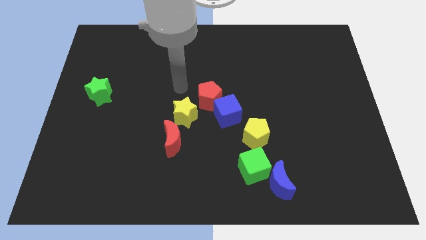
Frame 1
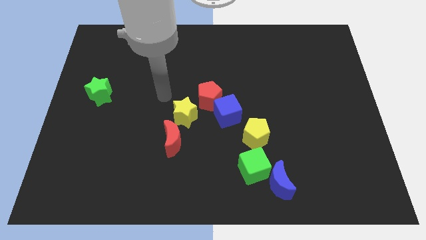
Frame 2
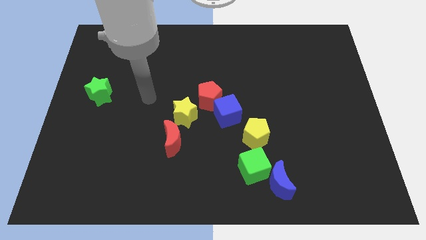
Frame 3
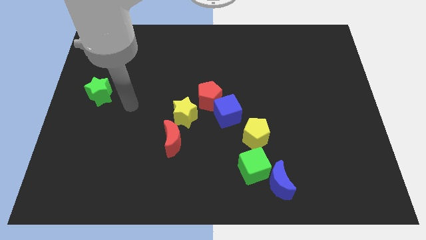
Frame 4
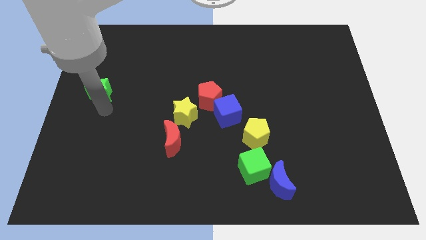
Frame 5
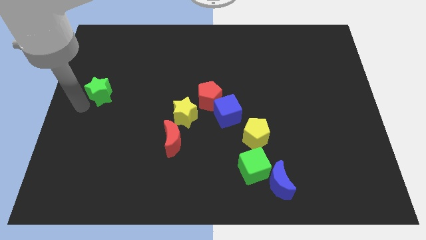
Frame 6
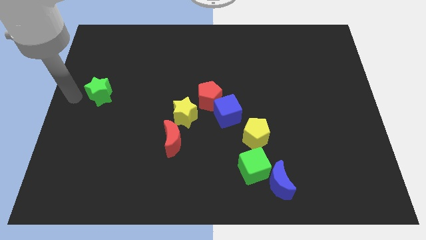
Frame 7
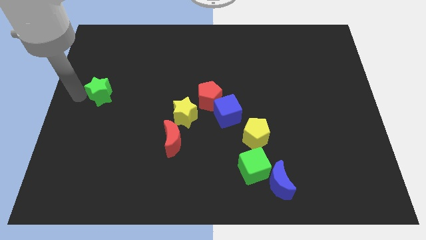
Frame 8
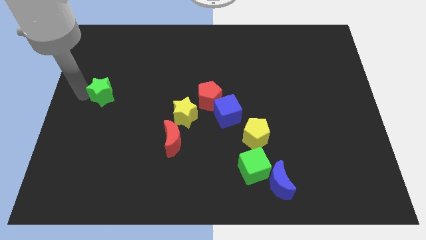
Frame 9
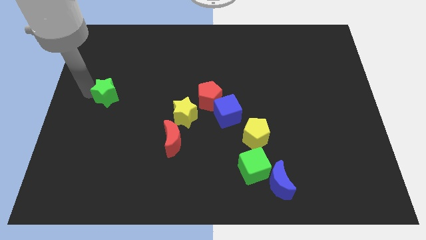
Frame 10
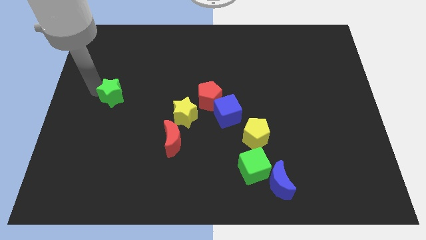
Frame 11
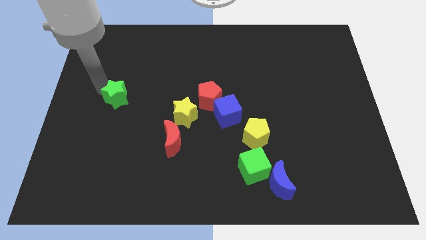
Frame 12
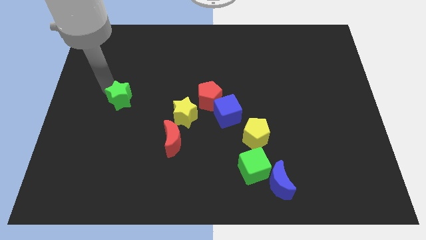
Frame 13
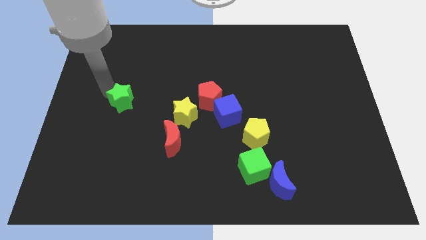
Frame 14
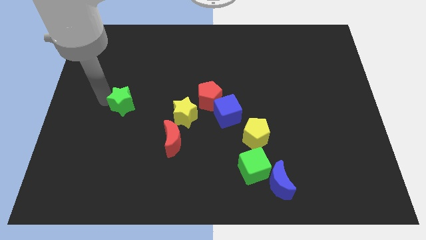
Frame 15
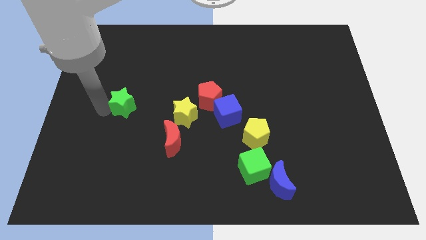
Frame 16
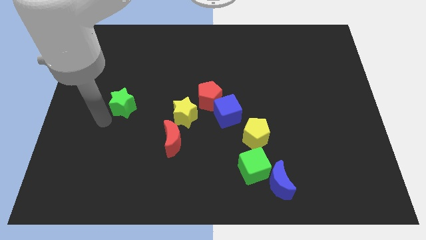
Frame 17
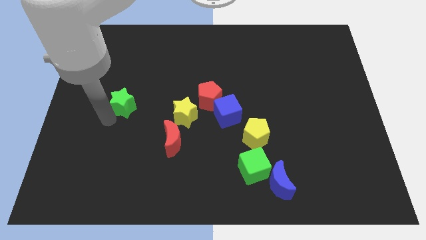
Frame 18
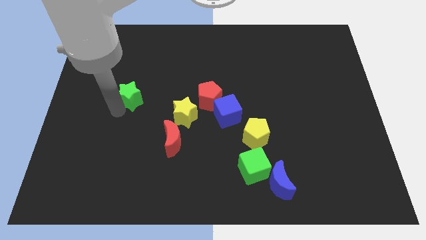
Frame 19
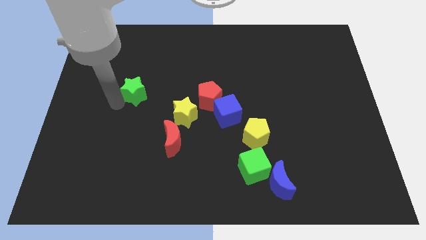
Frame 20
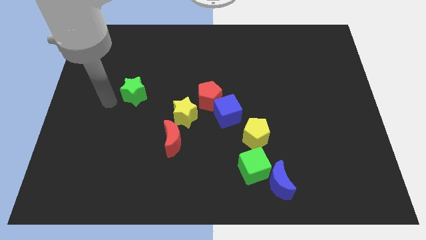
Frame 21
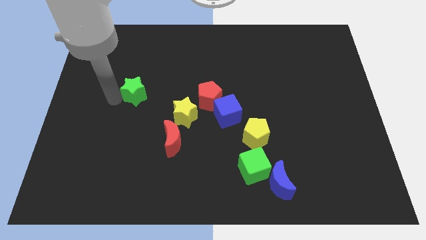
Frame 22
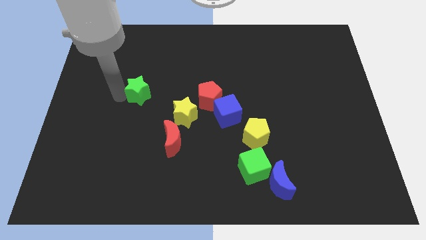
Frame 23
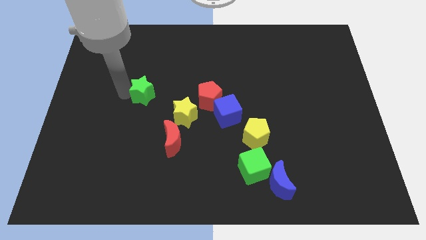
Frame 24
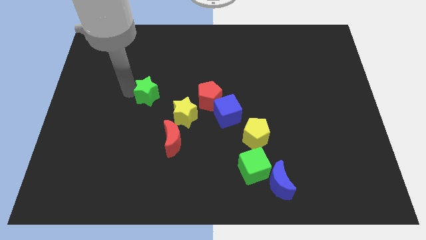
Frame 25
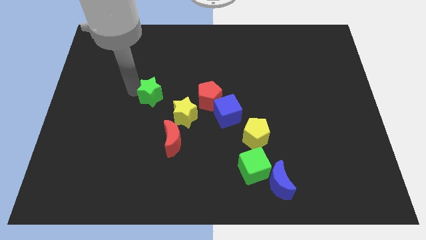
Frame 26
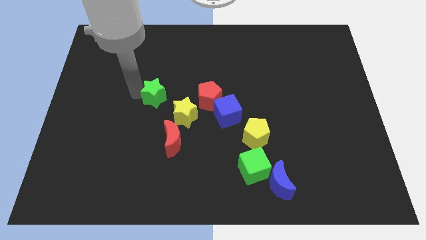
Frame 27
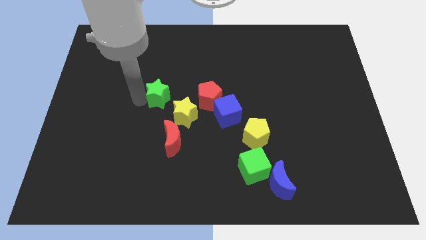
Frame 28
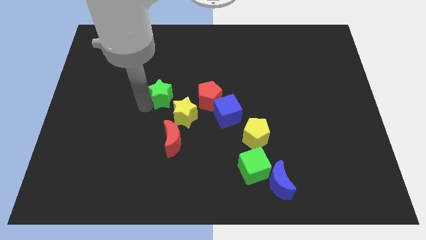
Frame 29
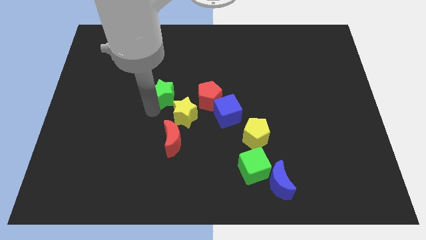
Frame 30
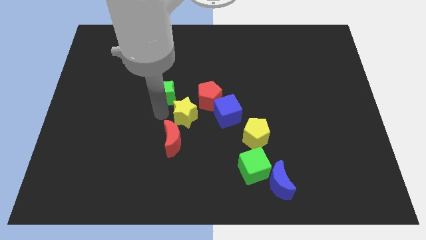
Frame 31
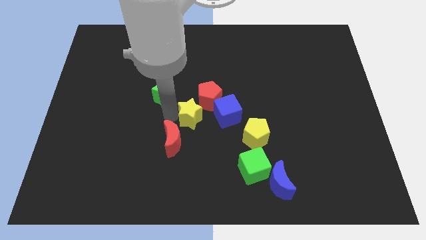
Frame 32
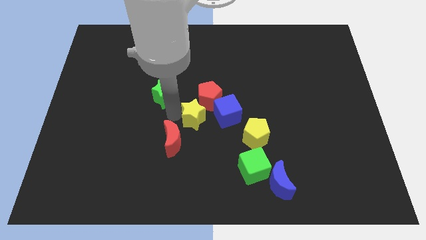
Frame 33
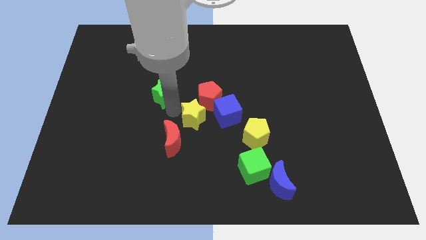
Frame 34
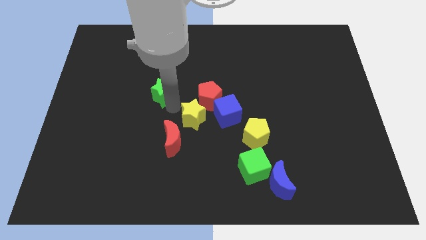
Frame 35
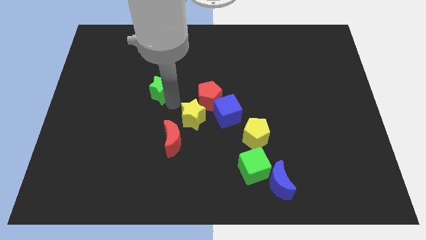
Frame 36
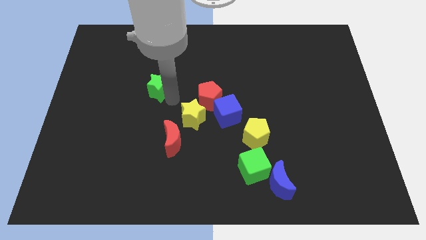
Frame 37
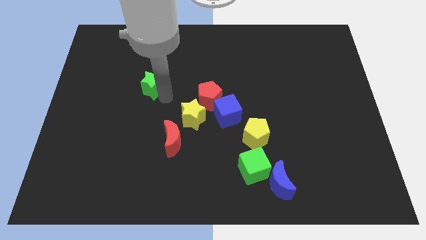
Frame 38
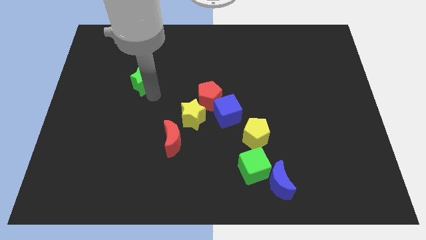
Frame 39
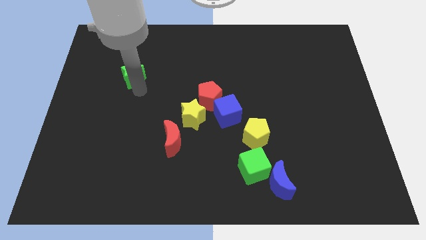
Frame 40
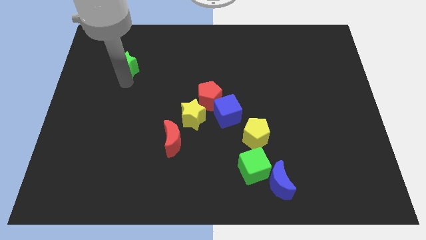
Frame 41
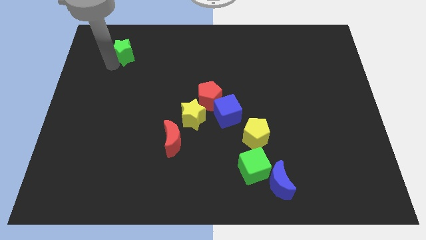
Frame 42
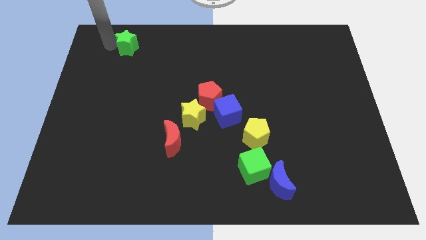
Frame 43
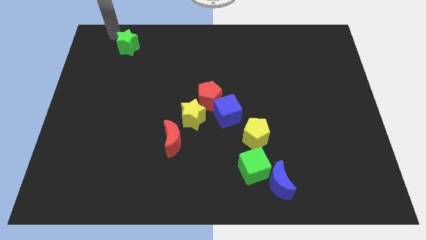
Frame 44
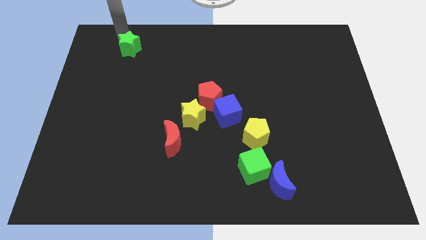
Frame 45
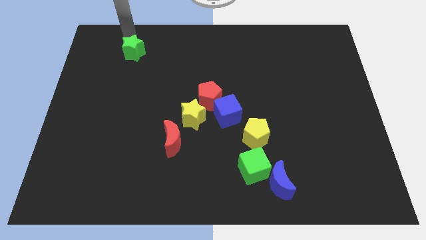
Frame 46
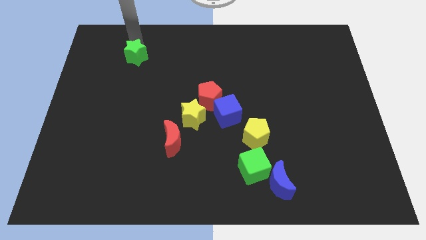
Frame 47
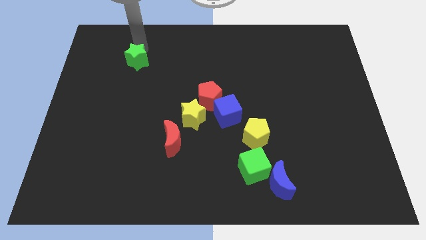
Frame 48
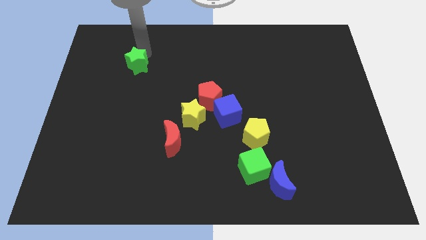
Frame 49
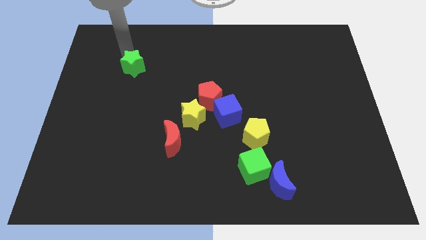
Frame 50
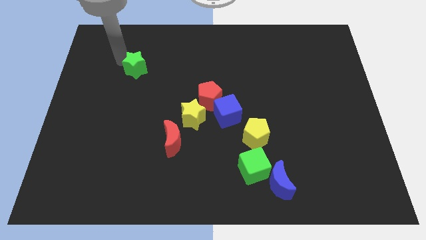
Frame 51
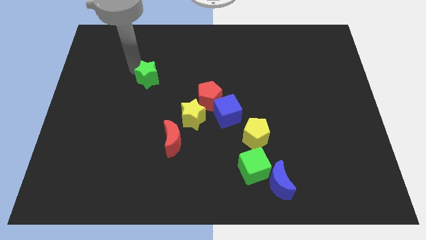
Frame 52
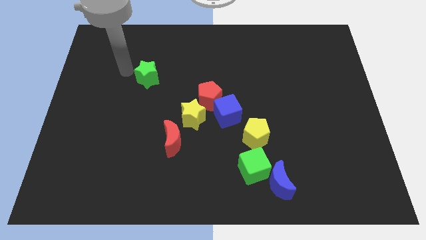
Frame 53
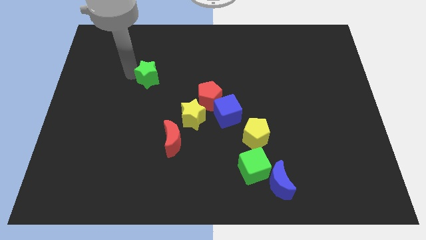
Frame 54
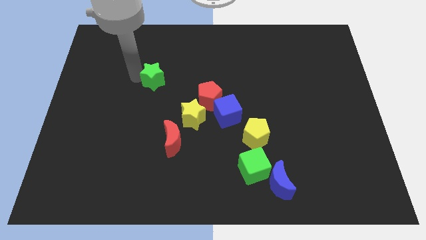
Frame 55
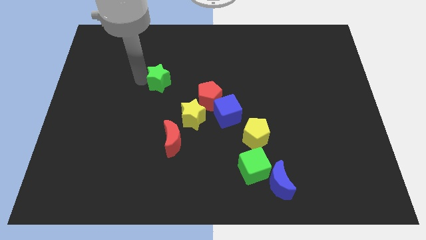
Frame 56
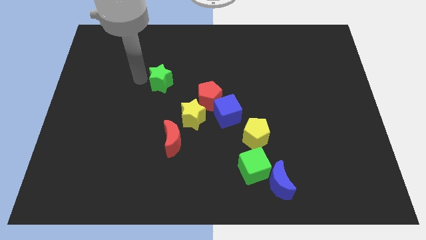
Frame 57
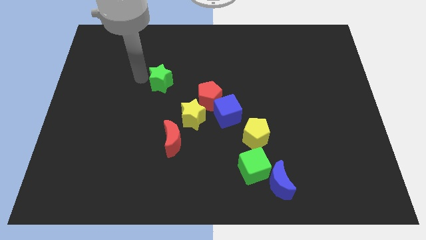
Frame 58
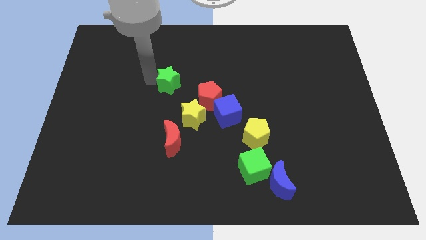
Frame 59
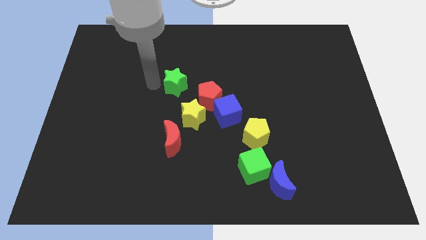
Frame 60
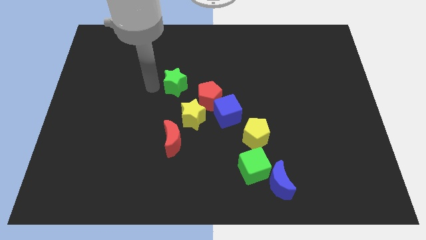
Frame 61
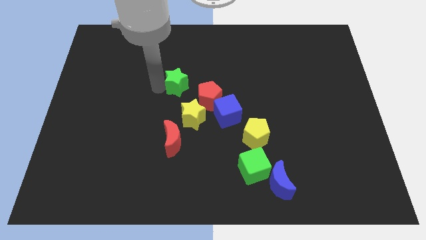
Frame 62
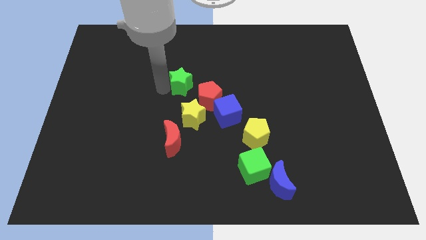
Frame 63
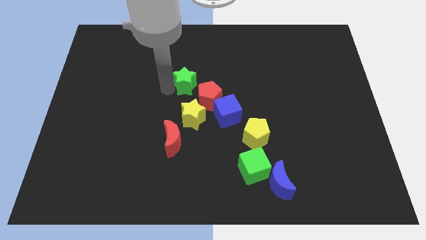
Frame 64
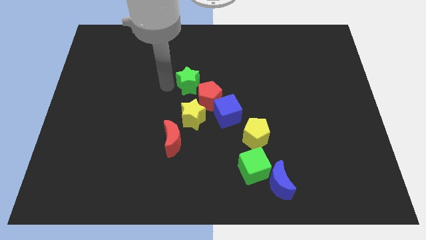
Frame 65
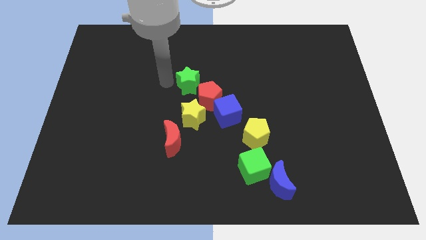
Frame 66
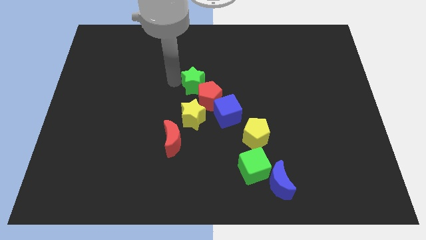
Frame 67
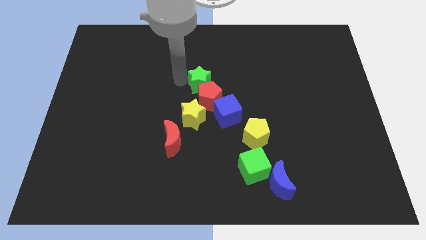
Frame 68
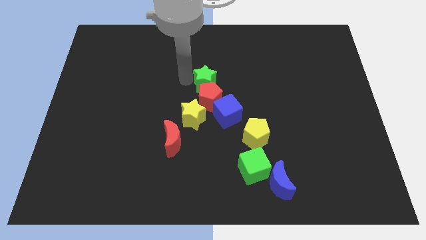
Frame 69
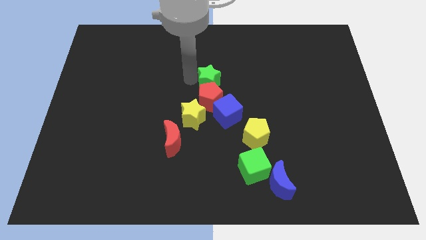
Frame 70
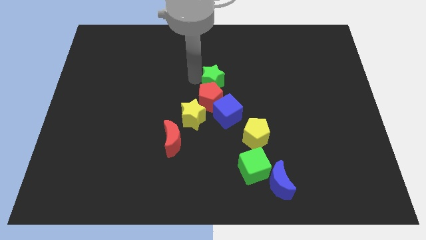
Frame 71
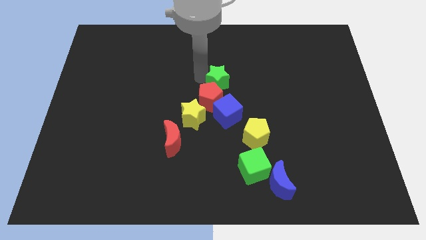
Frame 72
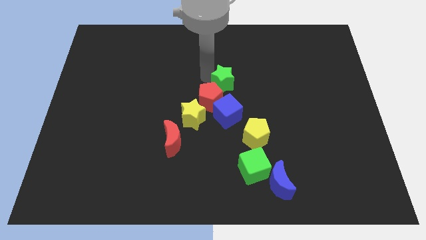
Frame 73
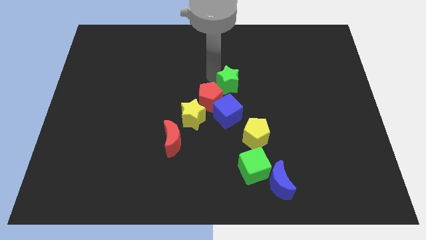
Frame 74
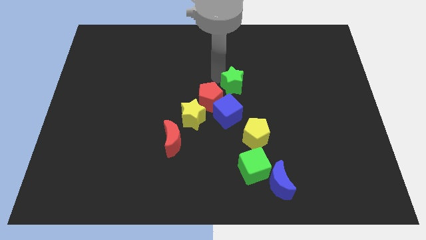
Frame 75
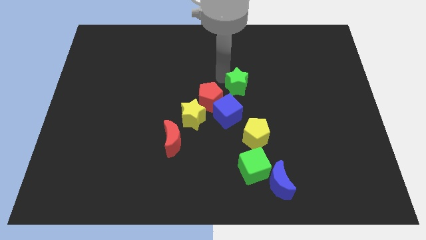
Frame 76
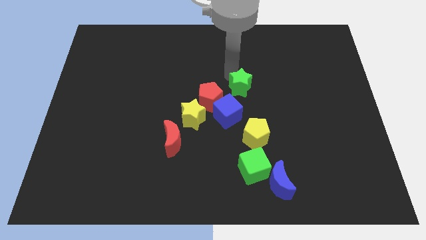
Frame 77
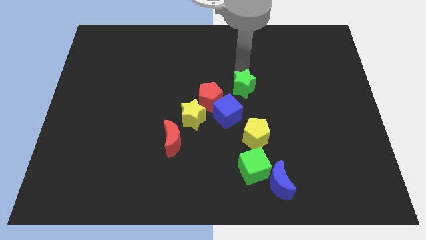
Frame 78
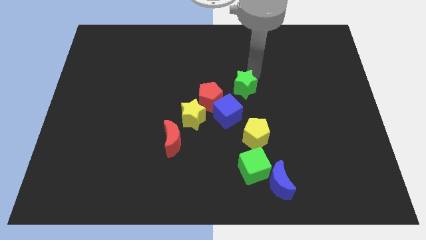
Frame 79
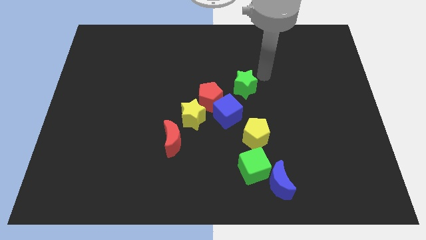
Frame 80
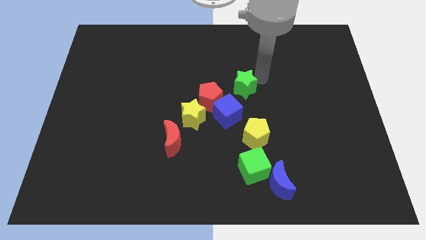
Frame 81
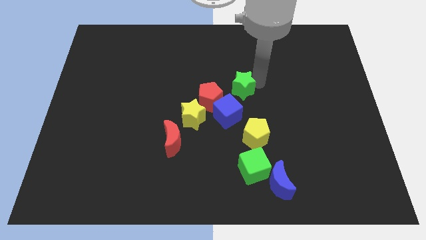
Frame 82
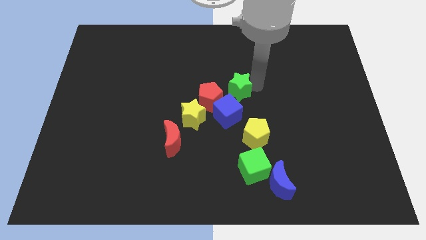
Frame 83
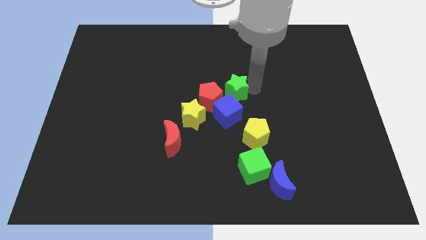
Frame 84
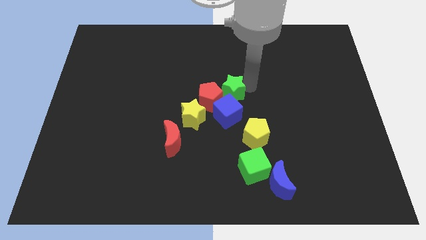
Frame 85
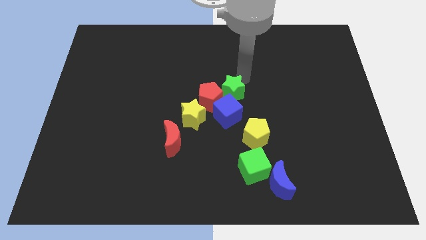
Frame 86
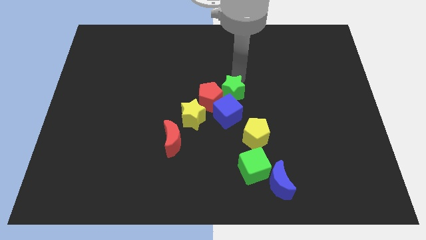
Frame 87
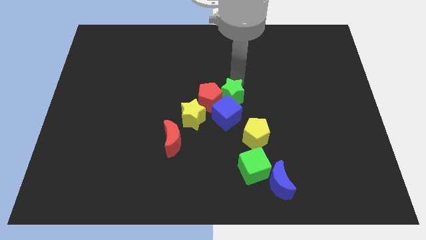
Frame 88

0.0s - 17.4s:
put the green star towards the blue cube
